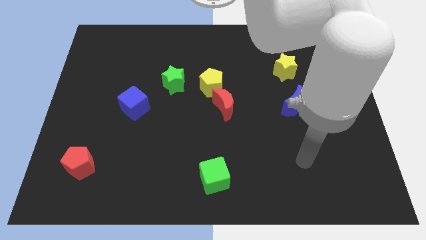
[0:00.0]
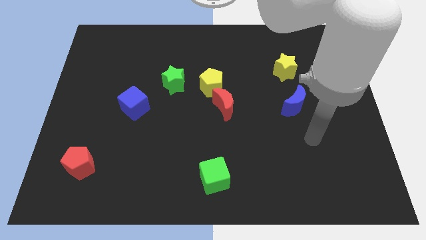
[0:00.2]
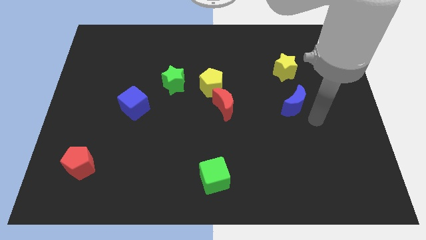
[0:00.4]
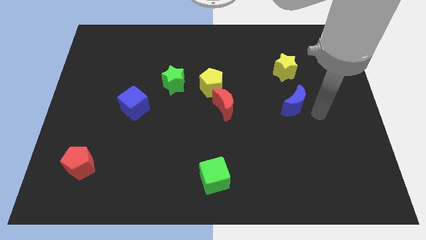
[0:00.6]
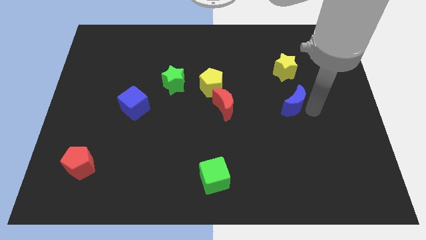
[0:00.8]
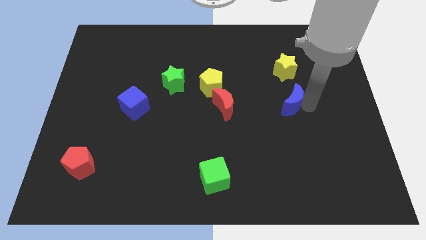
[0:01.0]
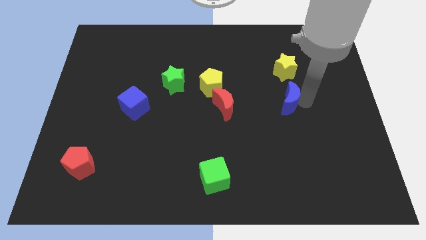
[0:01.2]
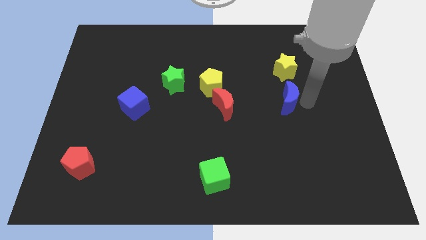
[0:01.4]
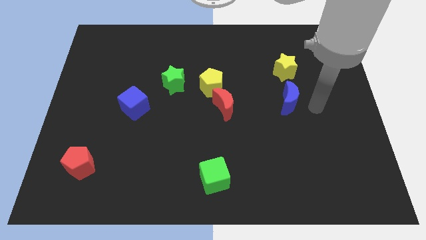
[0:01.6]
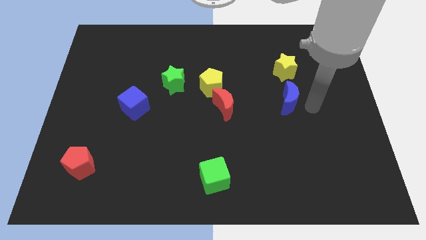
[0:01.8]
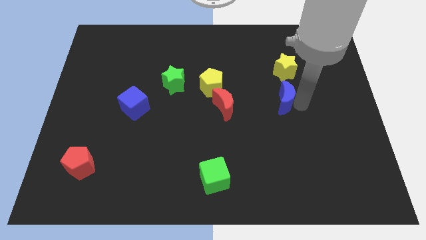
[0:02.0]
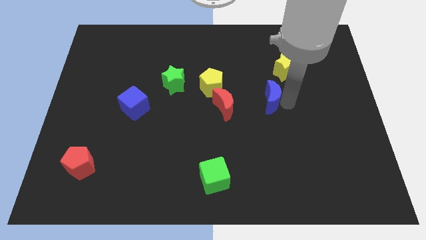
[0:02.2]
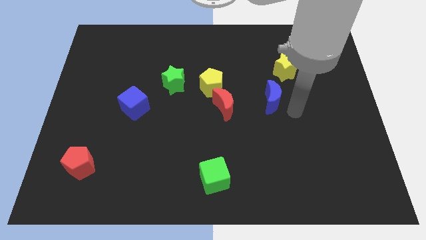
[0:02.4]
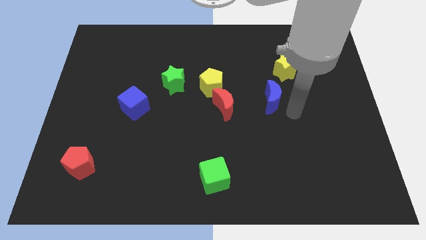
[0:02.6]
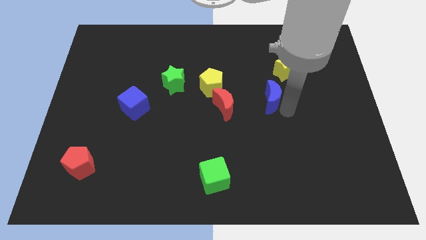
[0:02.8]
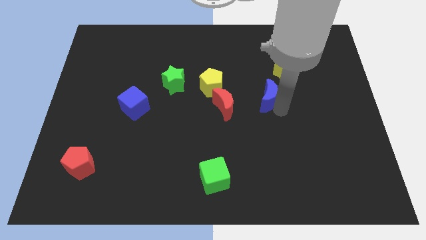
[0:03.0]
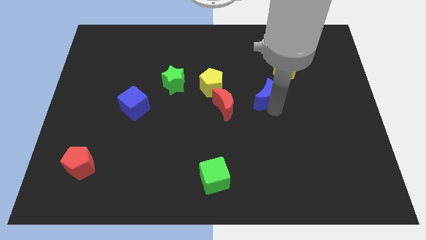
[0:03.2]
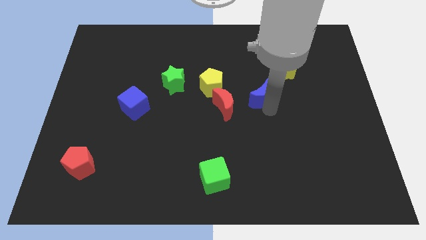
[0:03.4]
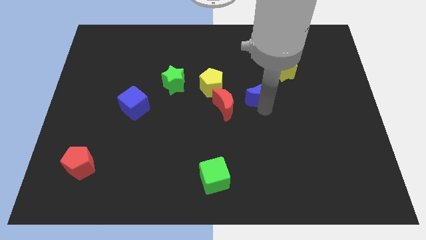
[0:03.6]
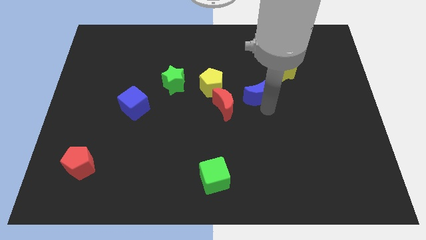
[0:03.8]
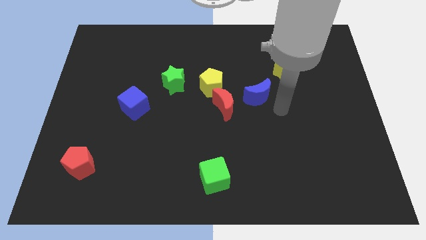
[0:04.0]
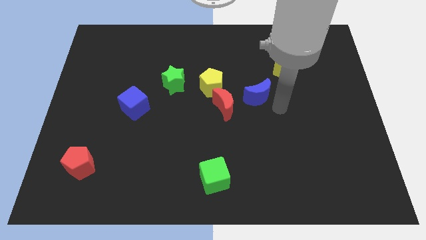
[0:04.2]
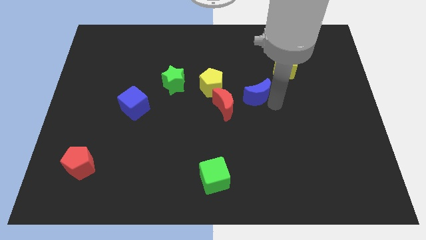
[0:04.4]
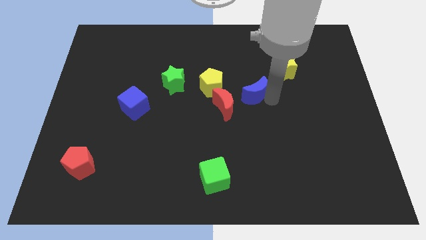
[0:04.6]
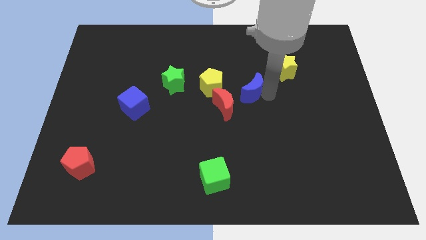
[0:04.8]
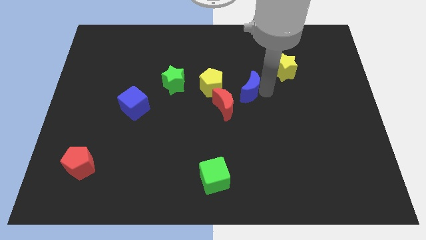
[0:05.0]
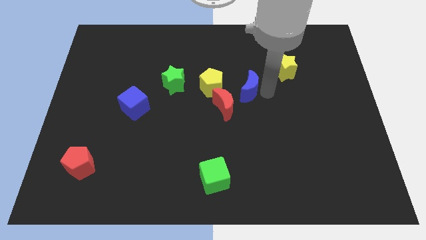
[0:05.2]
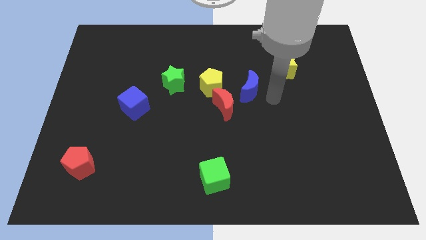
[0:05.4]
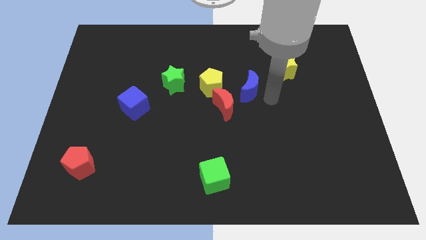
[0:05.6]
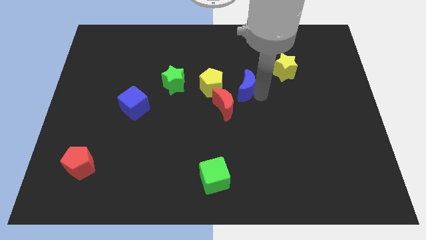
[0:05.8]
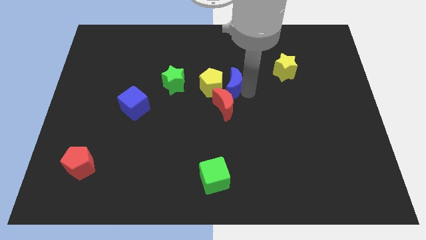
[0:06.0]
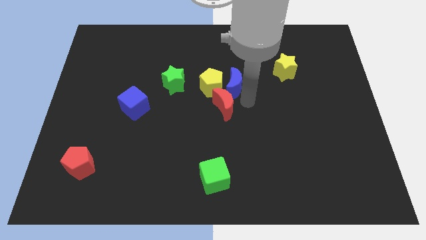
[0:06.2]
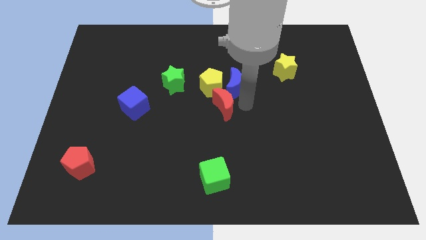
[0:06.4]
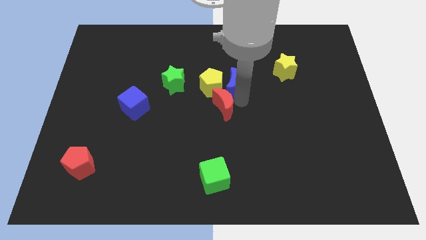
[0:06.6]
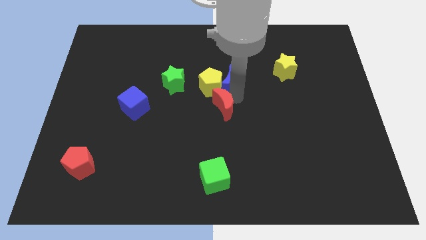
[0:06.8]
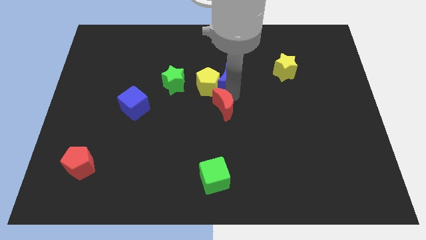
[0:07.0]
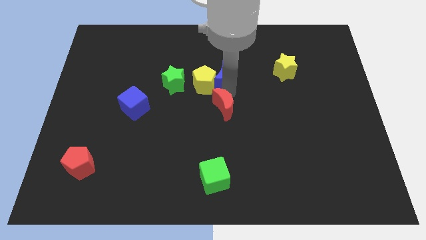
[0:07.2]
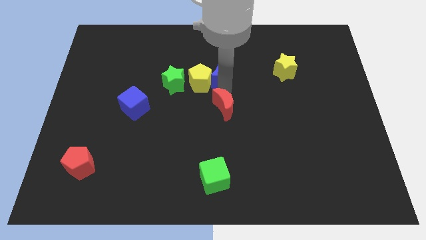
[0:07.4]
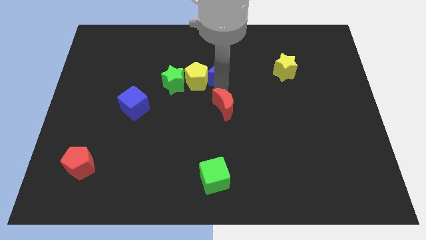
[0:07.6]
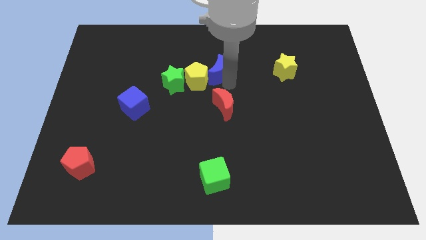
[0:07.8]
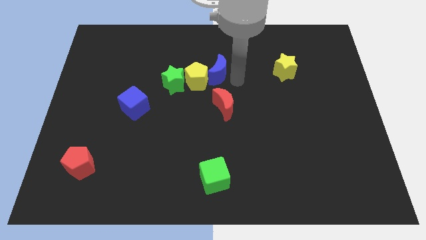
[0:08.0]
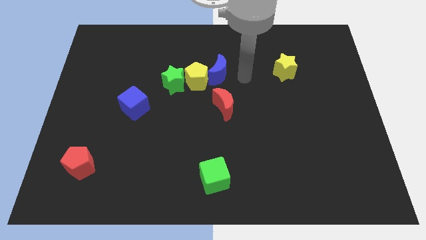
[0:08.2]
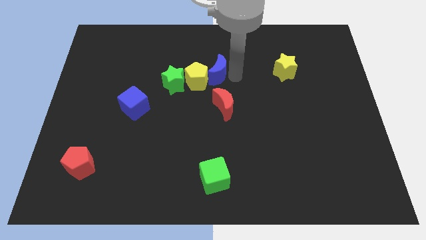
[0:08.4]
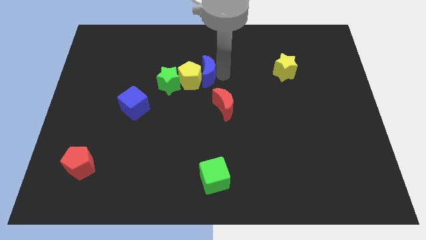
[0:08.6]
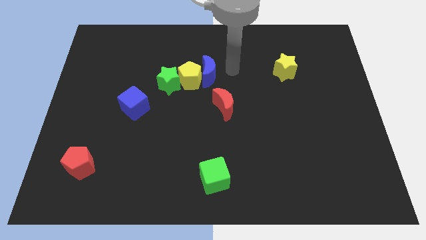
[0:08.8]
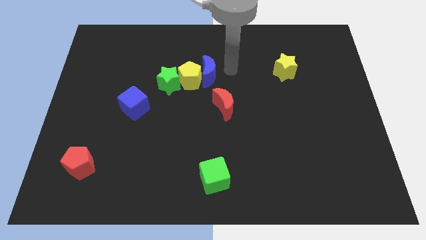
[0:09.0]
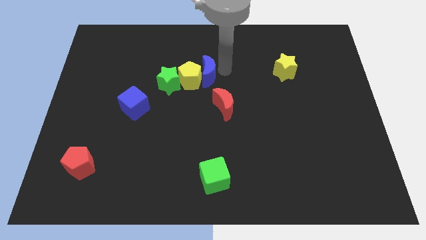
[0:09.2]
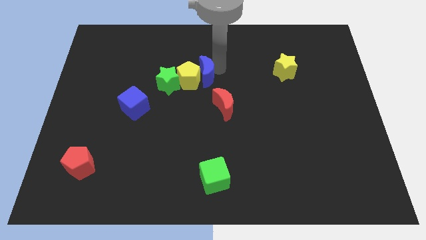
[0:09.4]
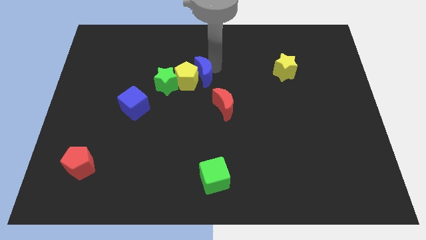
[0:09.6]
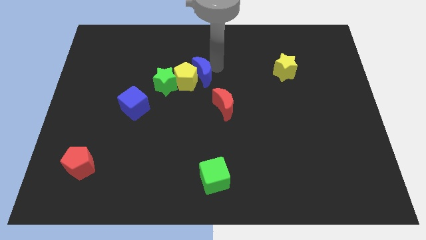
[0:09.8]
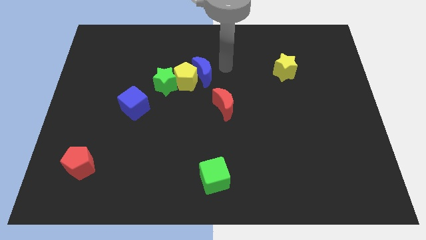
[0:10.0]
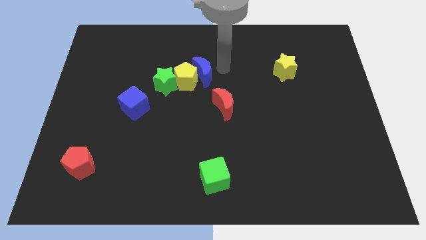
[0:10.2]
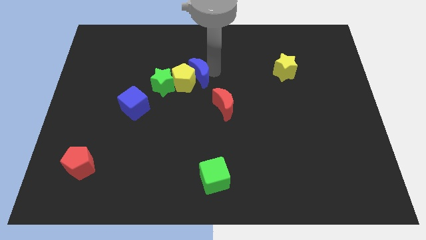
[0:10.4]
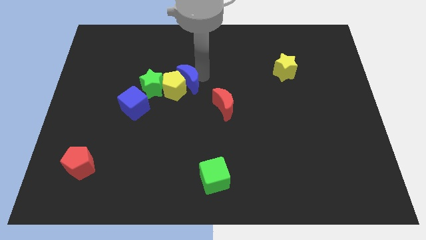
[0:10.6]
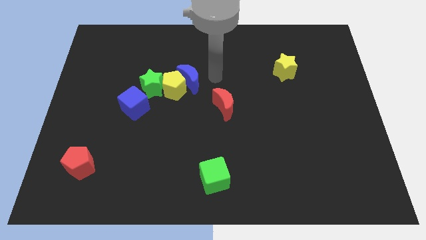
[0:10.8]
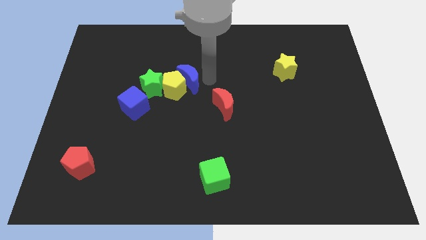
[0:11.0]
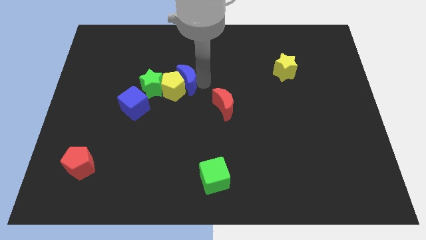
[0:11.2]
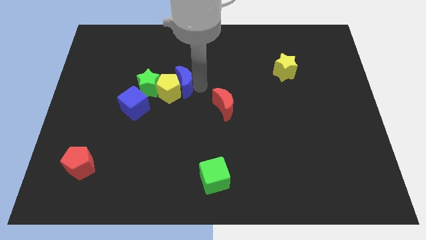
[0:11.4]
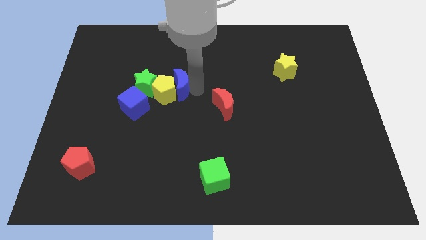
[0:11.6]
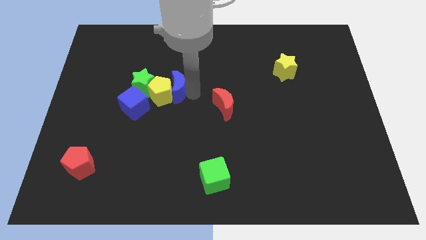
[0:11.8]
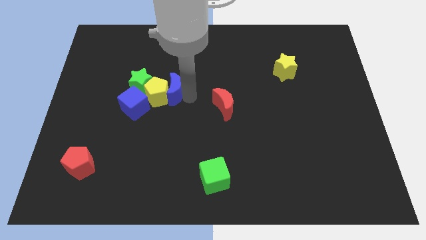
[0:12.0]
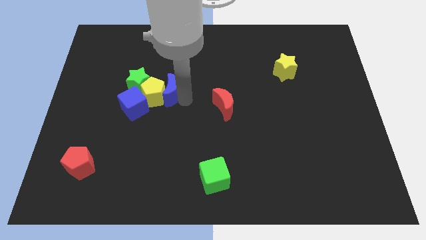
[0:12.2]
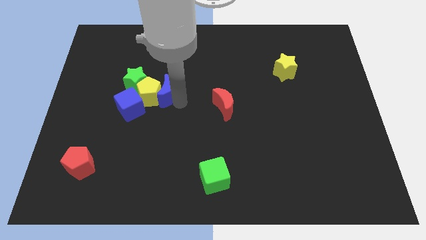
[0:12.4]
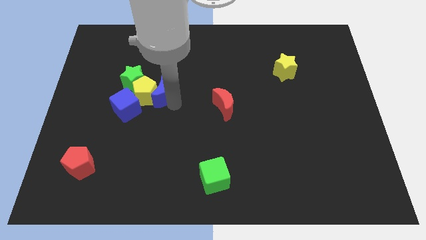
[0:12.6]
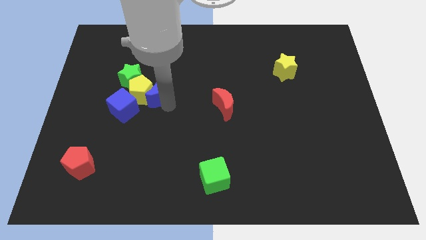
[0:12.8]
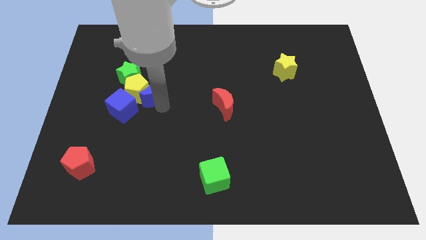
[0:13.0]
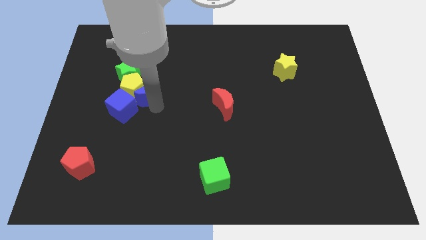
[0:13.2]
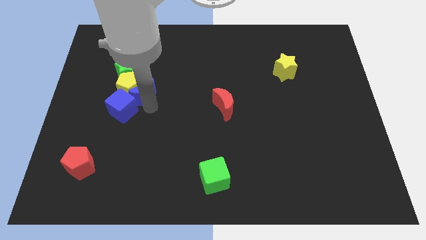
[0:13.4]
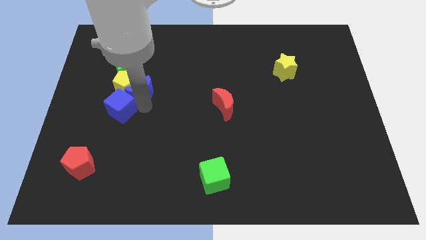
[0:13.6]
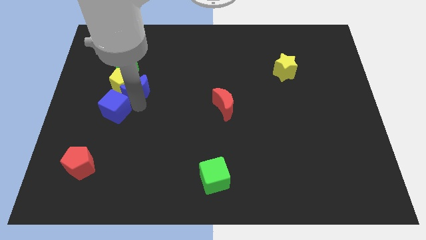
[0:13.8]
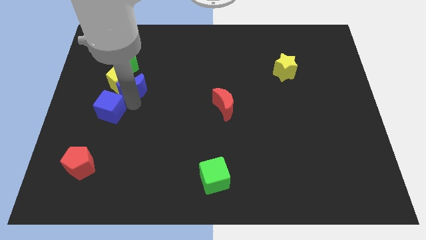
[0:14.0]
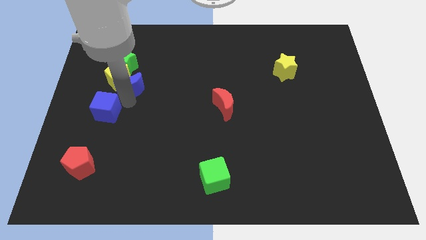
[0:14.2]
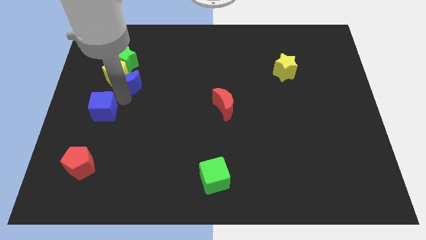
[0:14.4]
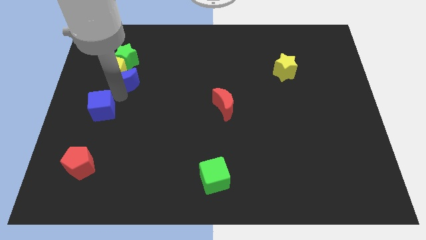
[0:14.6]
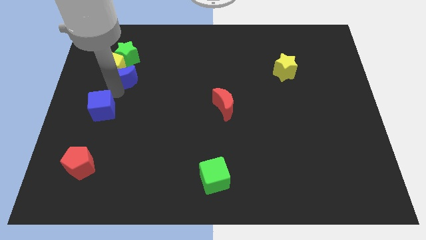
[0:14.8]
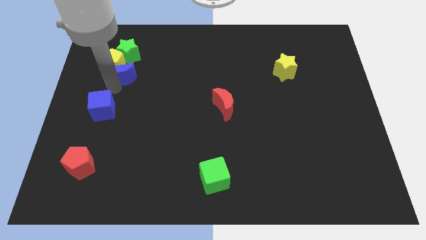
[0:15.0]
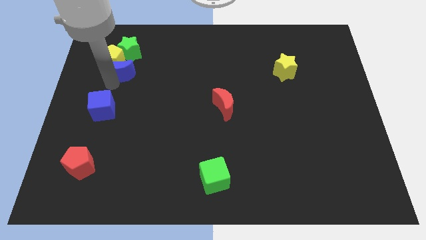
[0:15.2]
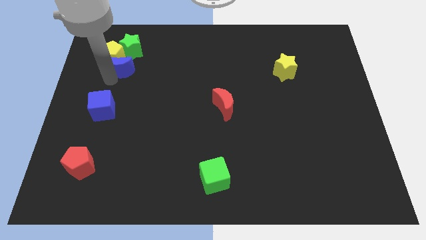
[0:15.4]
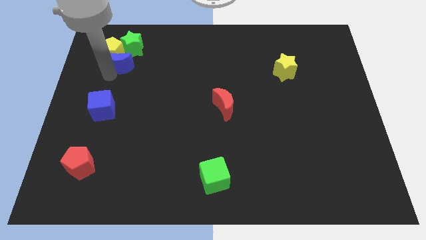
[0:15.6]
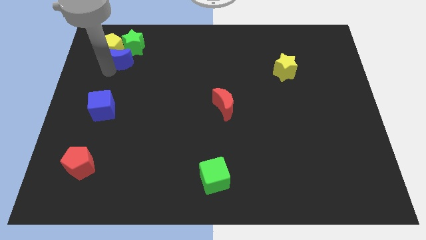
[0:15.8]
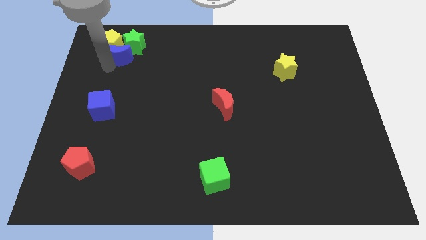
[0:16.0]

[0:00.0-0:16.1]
push the blue moon to the green star
